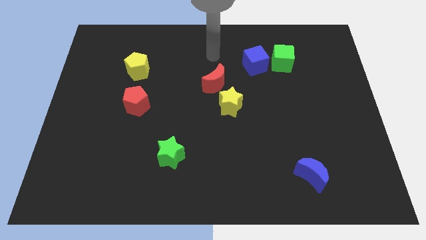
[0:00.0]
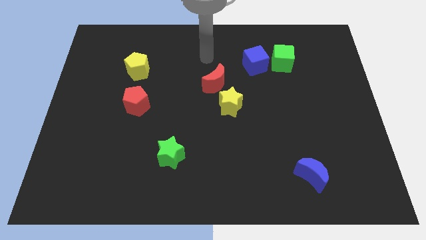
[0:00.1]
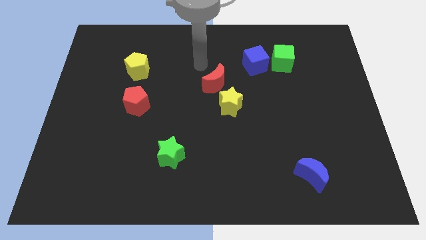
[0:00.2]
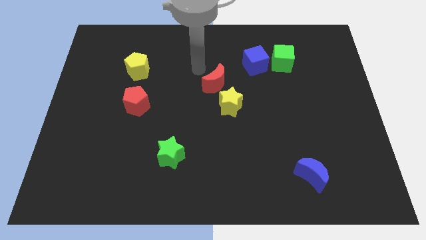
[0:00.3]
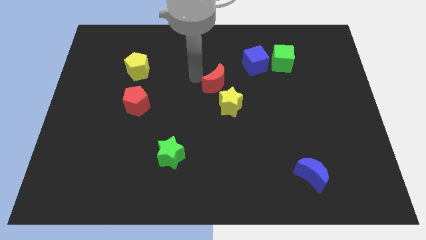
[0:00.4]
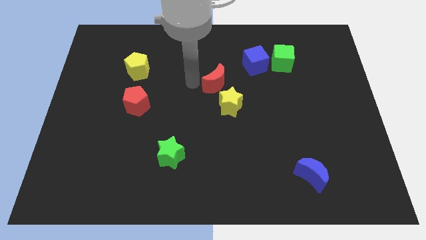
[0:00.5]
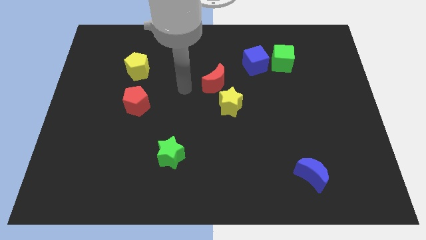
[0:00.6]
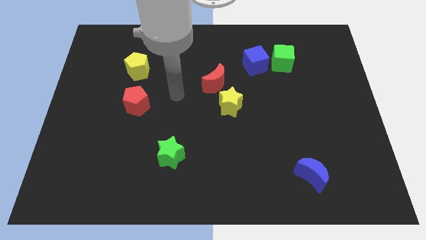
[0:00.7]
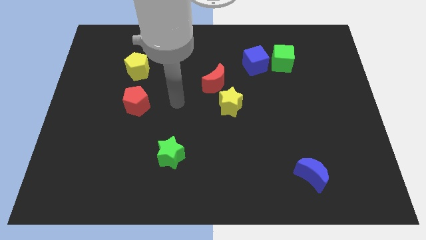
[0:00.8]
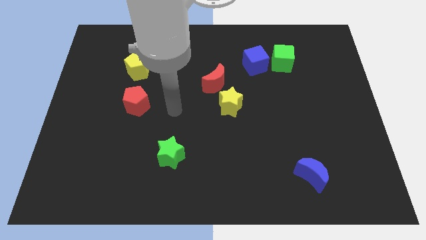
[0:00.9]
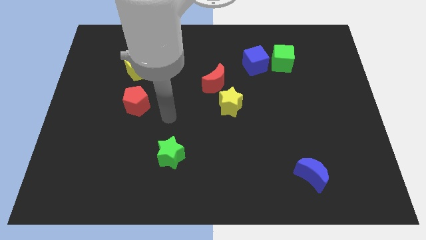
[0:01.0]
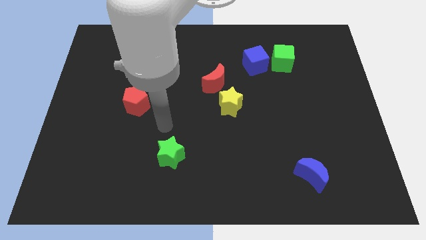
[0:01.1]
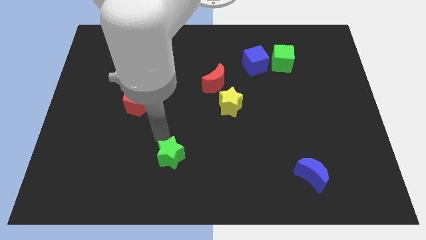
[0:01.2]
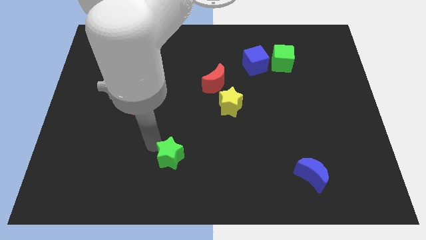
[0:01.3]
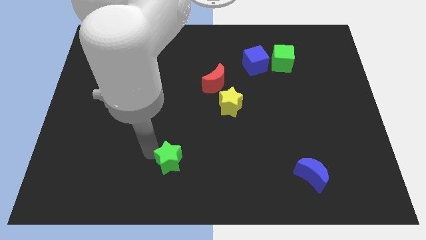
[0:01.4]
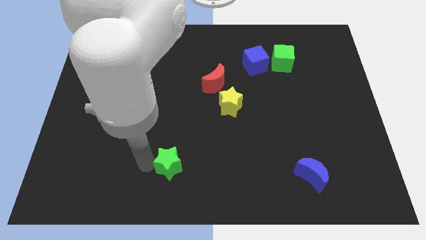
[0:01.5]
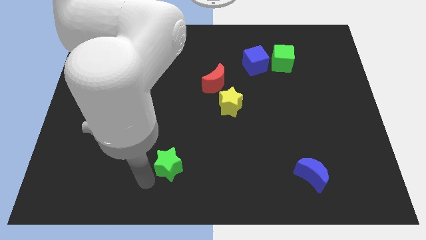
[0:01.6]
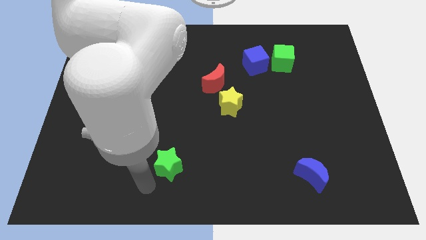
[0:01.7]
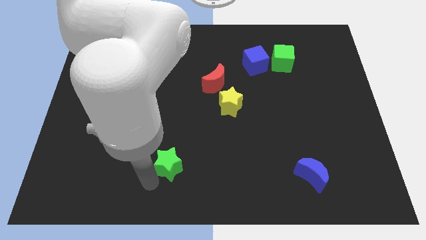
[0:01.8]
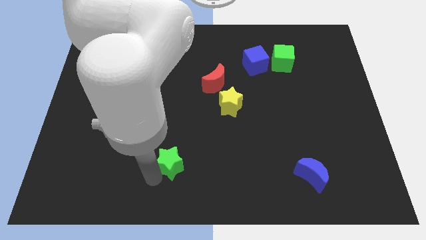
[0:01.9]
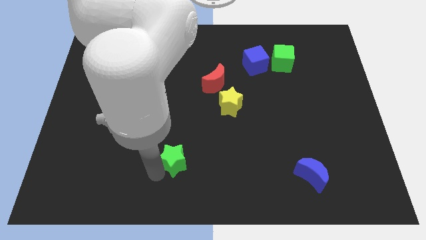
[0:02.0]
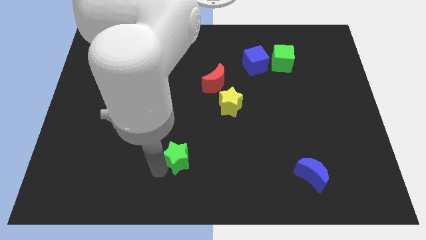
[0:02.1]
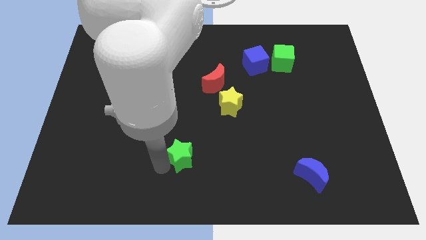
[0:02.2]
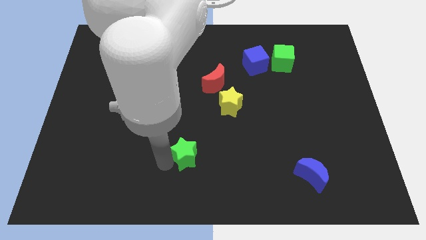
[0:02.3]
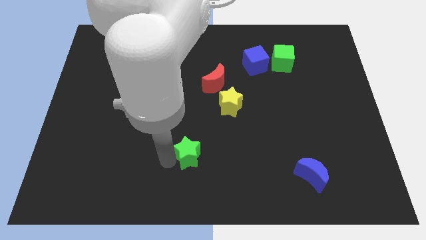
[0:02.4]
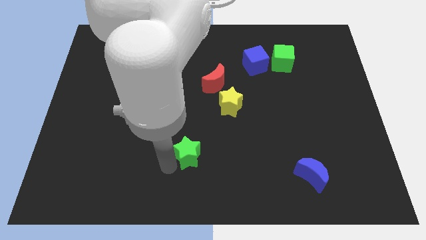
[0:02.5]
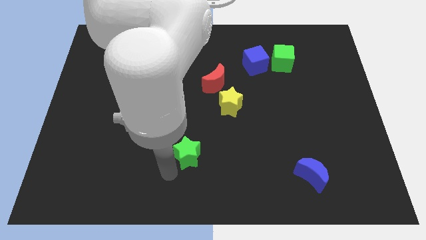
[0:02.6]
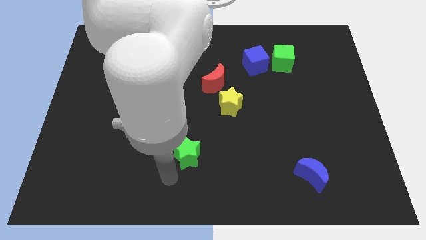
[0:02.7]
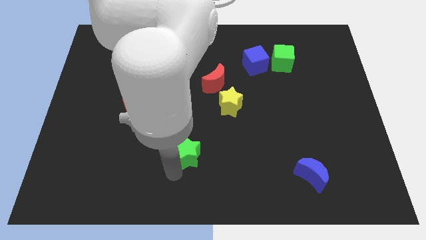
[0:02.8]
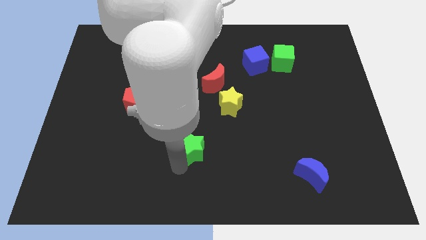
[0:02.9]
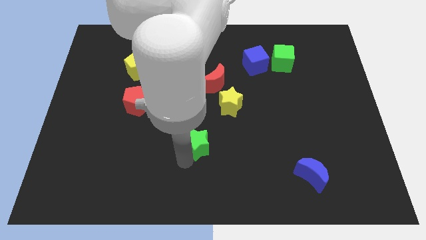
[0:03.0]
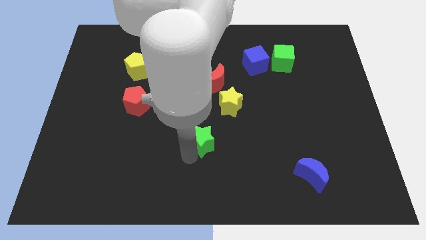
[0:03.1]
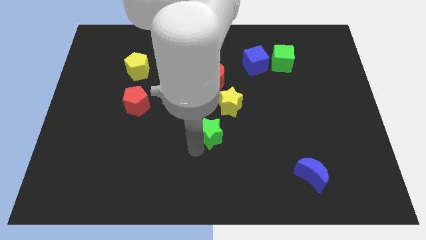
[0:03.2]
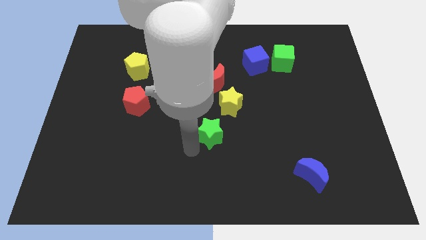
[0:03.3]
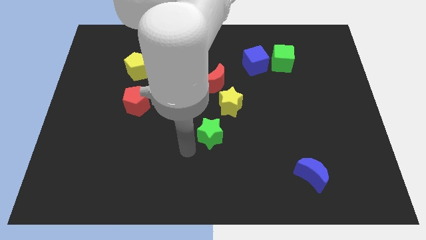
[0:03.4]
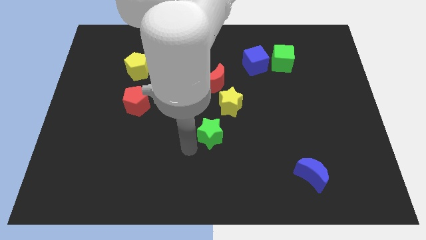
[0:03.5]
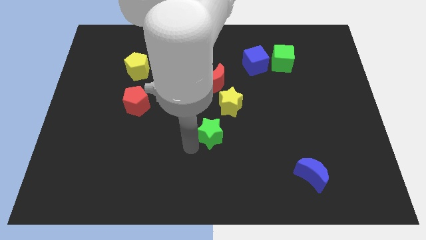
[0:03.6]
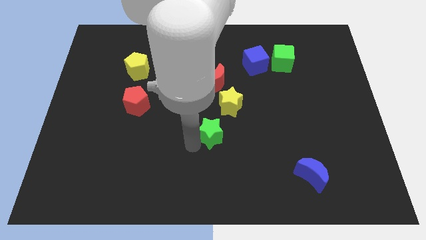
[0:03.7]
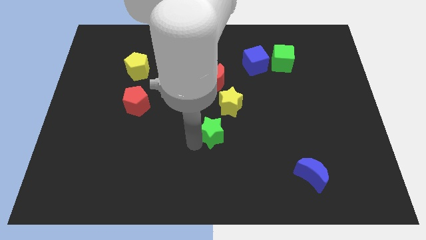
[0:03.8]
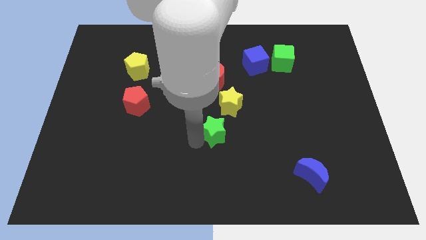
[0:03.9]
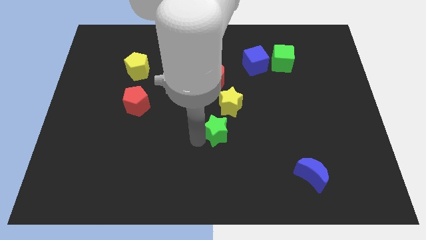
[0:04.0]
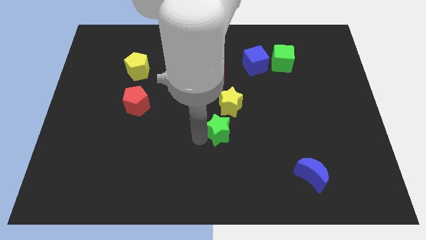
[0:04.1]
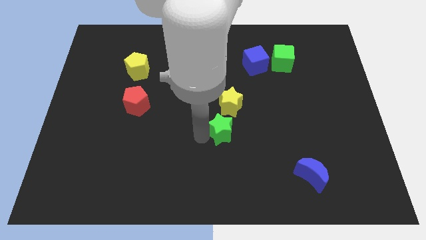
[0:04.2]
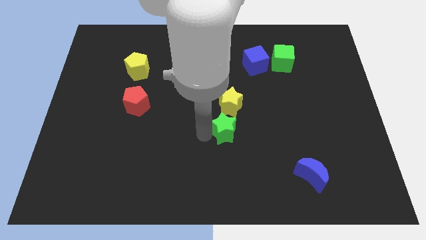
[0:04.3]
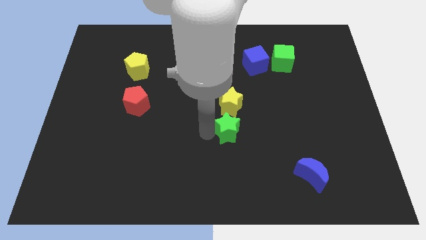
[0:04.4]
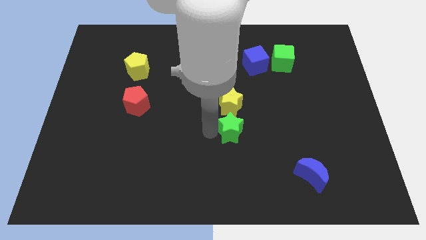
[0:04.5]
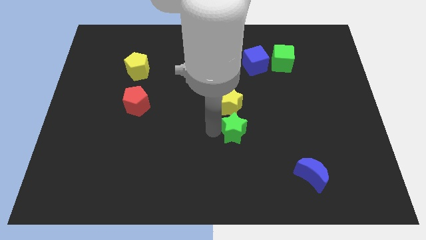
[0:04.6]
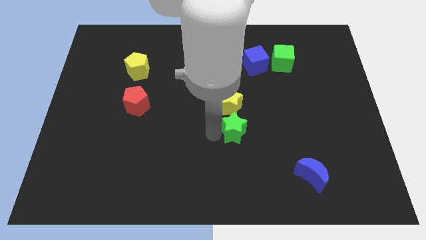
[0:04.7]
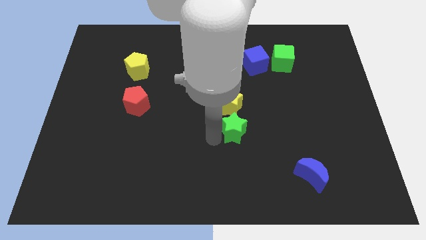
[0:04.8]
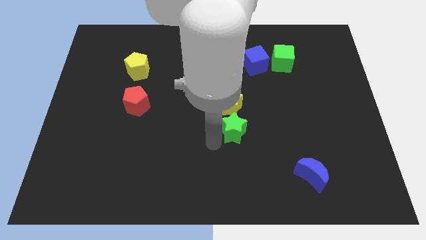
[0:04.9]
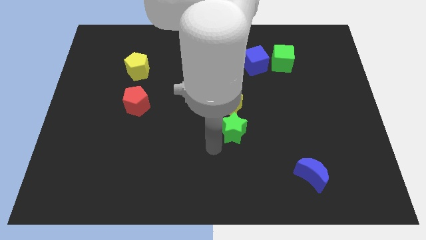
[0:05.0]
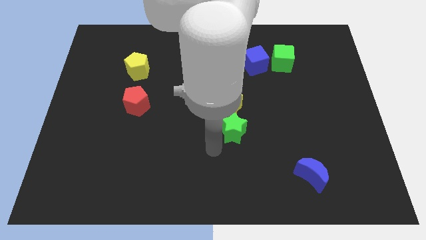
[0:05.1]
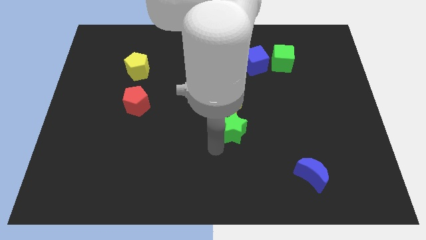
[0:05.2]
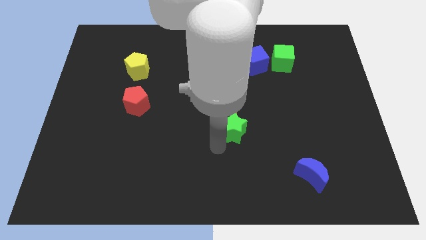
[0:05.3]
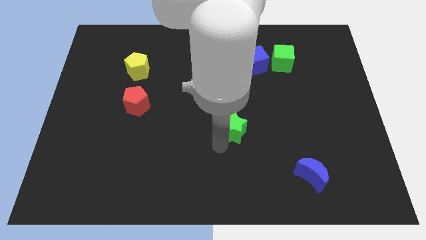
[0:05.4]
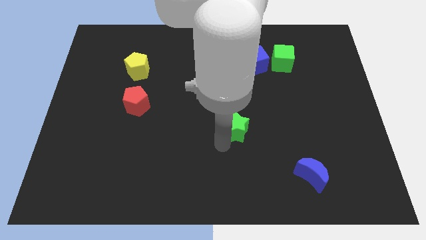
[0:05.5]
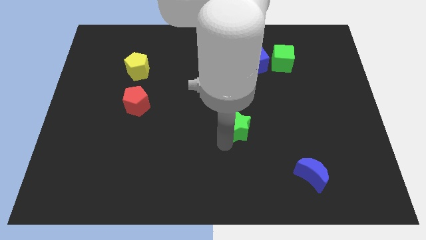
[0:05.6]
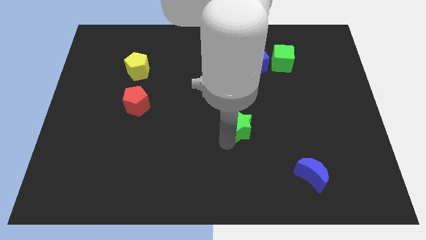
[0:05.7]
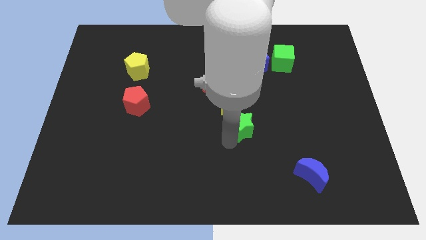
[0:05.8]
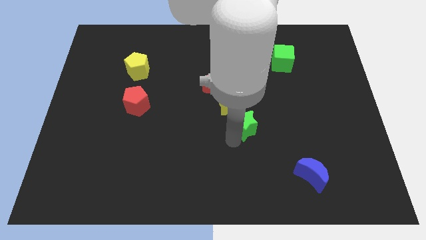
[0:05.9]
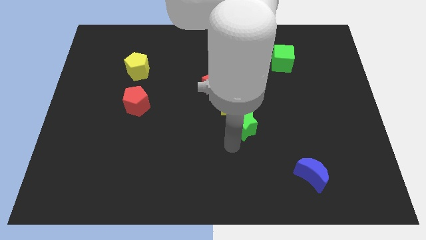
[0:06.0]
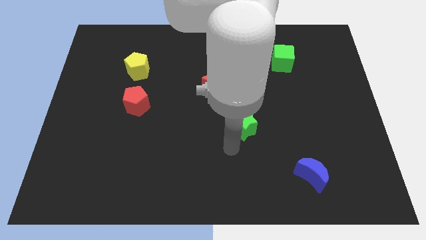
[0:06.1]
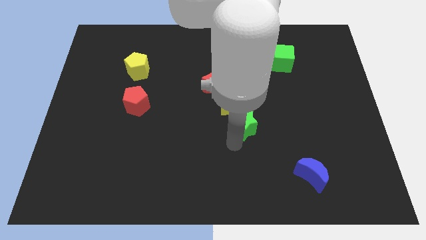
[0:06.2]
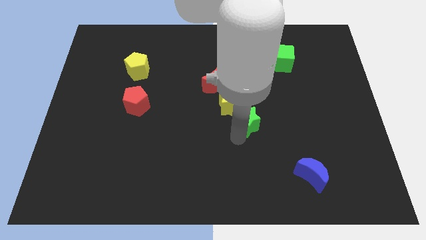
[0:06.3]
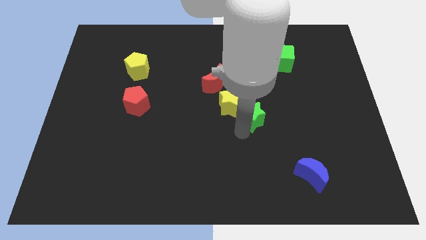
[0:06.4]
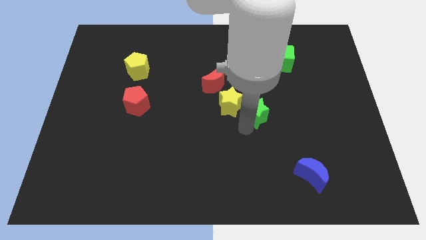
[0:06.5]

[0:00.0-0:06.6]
push the green star up and then right

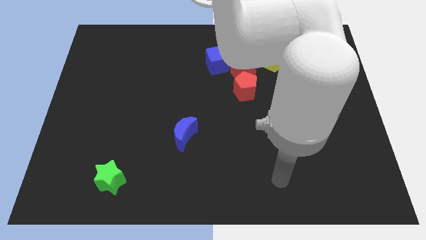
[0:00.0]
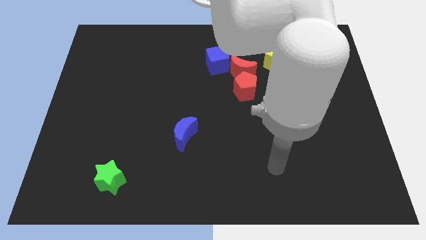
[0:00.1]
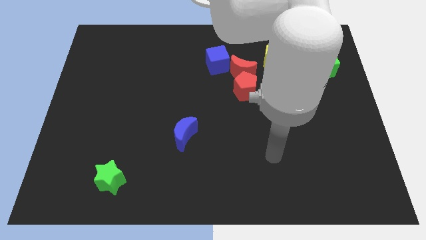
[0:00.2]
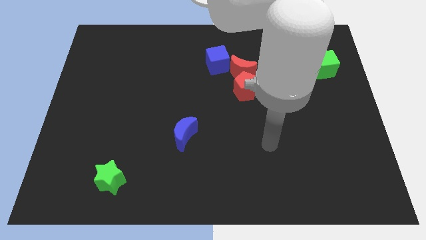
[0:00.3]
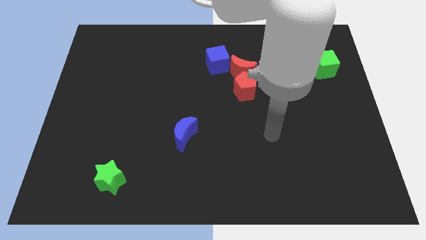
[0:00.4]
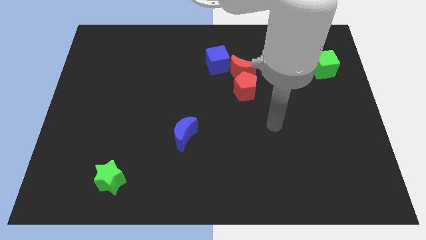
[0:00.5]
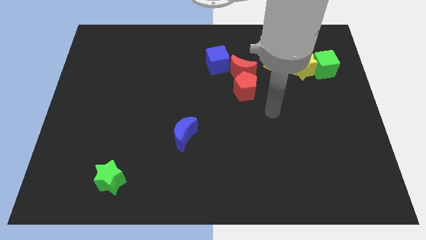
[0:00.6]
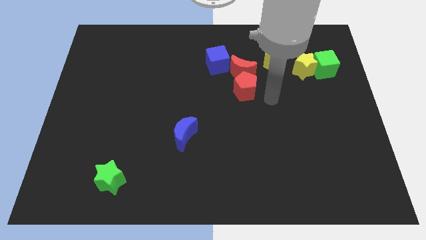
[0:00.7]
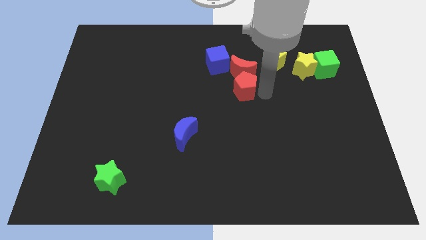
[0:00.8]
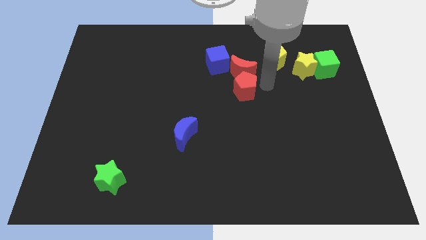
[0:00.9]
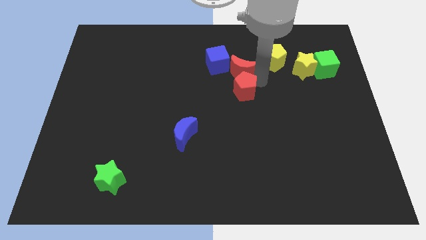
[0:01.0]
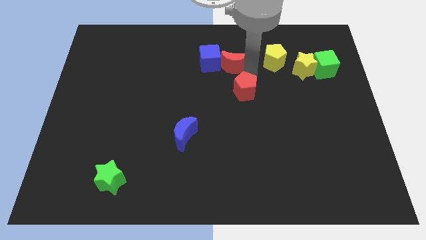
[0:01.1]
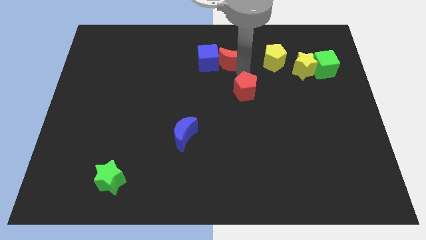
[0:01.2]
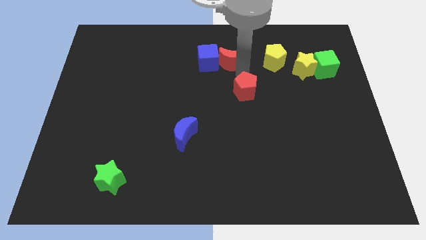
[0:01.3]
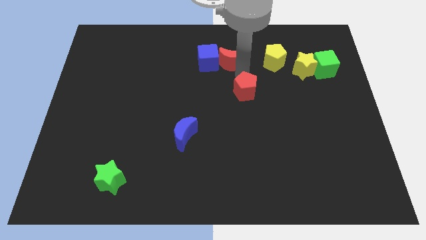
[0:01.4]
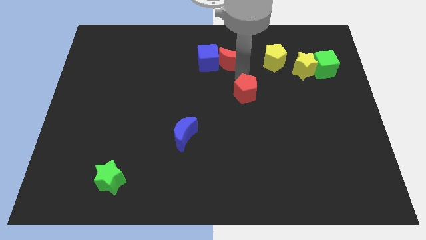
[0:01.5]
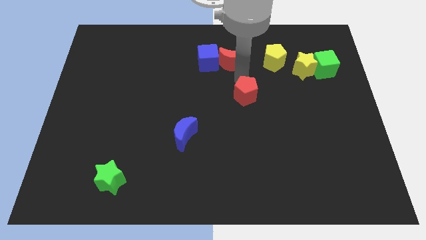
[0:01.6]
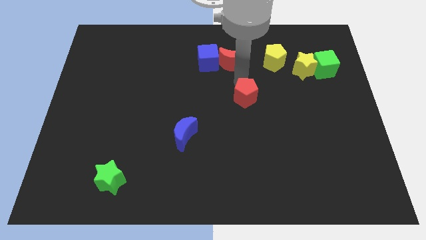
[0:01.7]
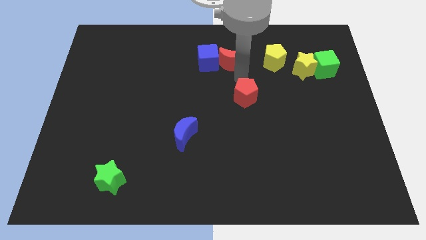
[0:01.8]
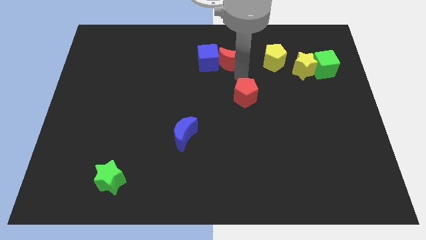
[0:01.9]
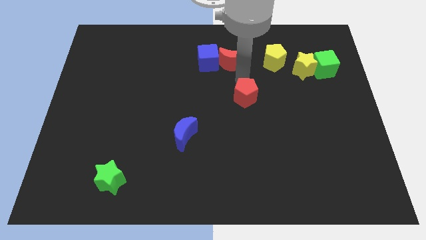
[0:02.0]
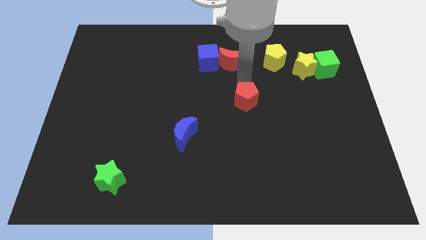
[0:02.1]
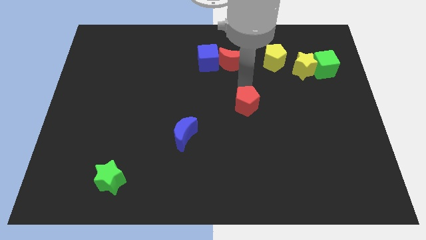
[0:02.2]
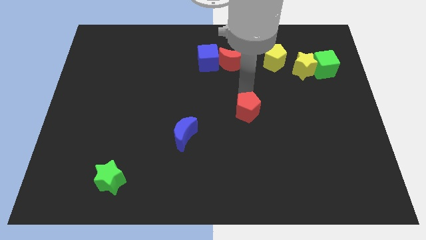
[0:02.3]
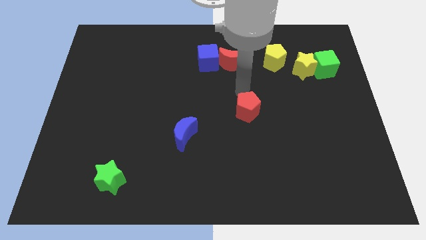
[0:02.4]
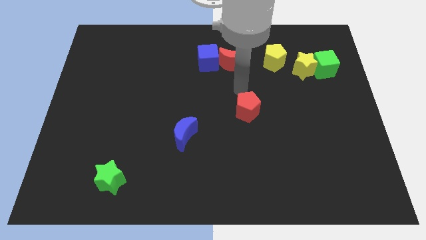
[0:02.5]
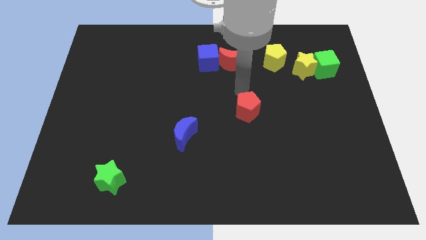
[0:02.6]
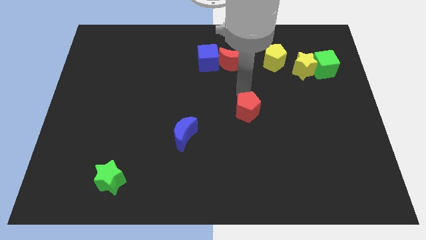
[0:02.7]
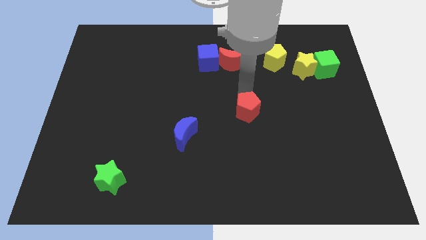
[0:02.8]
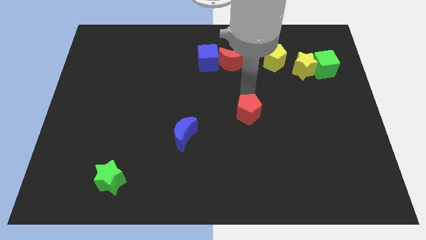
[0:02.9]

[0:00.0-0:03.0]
slide the red pentagon downwards somewhat
